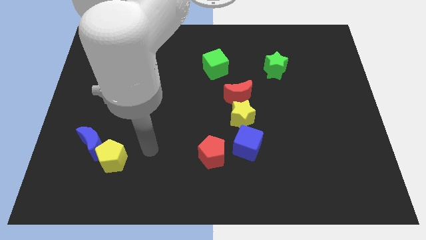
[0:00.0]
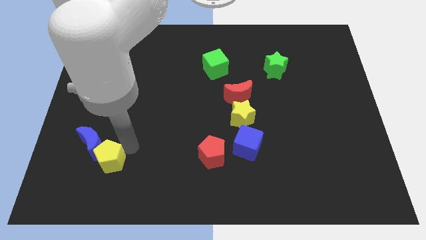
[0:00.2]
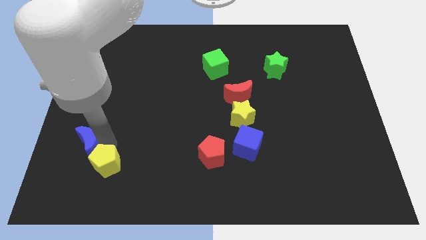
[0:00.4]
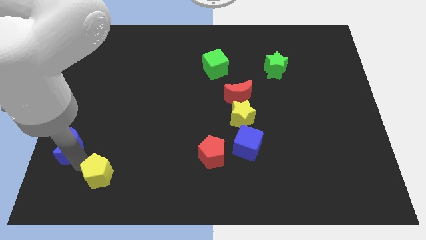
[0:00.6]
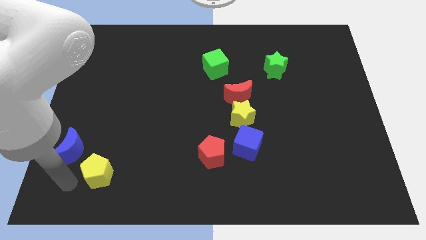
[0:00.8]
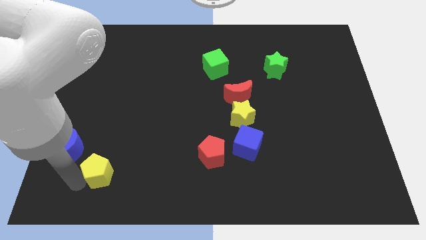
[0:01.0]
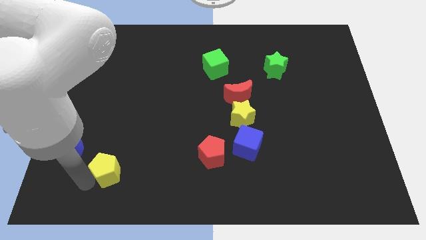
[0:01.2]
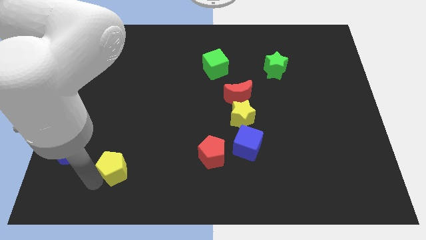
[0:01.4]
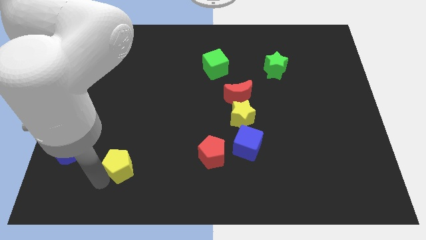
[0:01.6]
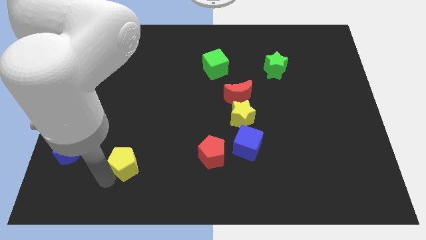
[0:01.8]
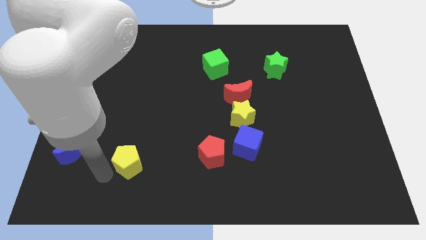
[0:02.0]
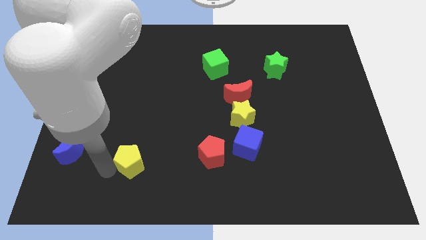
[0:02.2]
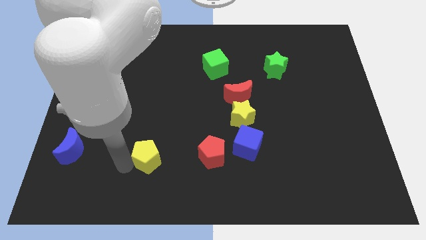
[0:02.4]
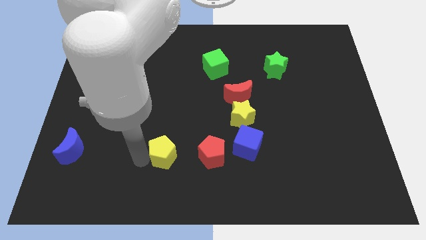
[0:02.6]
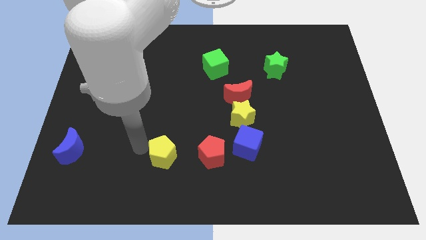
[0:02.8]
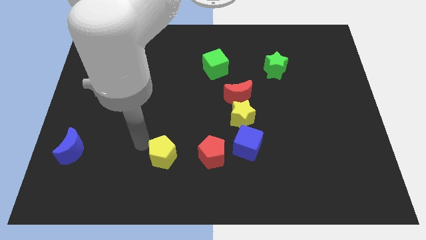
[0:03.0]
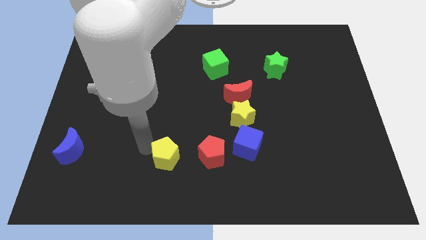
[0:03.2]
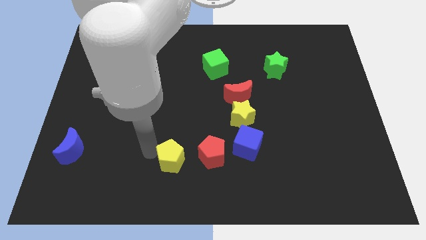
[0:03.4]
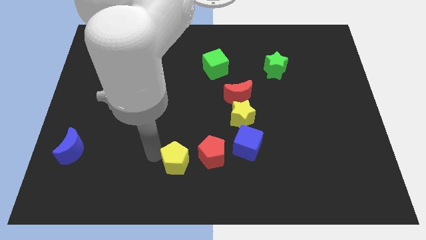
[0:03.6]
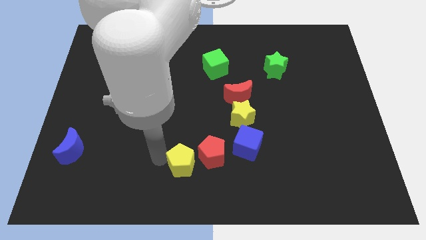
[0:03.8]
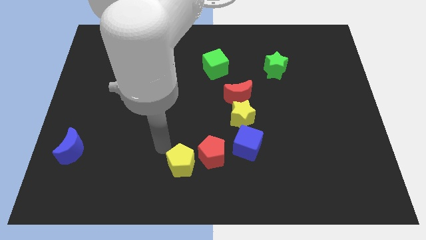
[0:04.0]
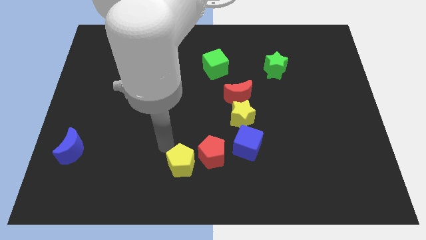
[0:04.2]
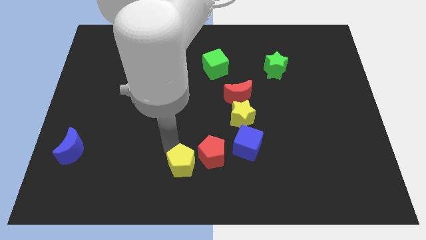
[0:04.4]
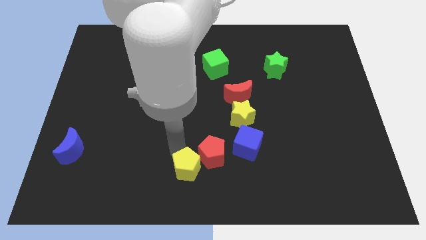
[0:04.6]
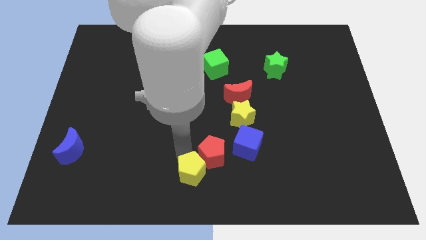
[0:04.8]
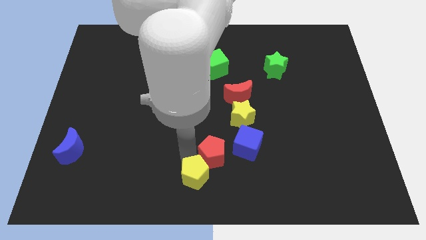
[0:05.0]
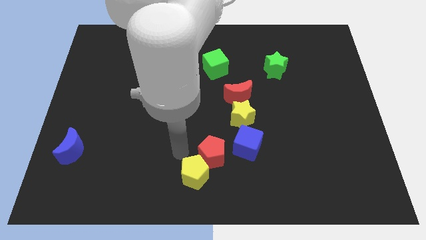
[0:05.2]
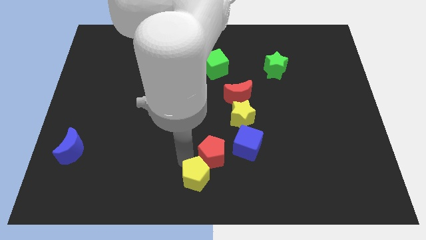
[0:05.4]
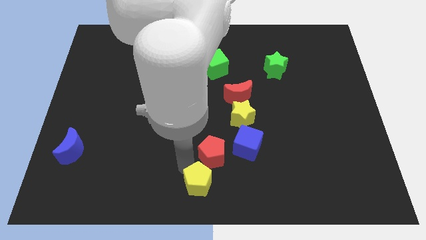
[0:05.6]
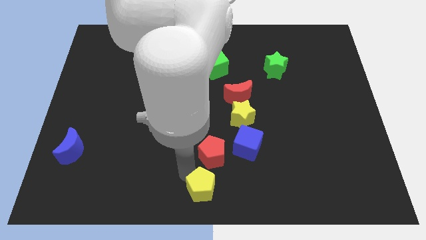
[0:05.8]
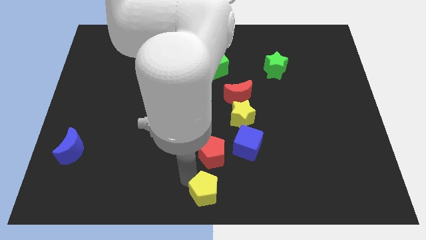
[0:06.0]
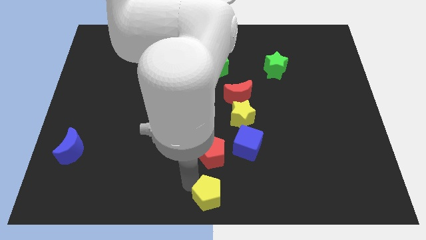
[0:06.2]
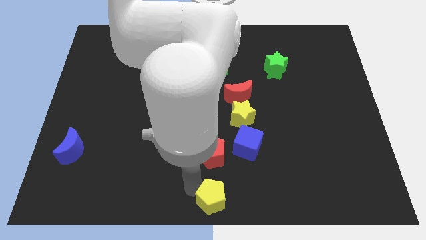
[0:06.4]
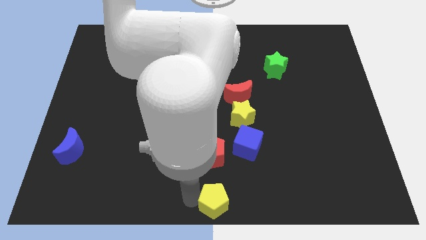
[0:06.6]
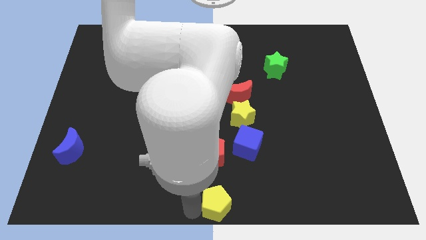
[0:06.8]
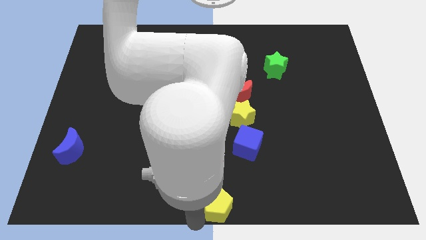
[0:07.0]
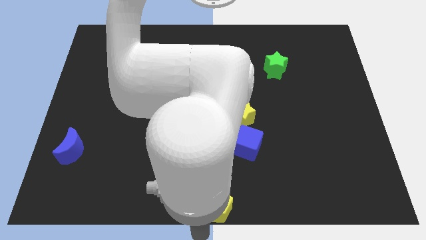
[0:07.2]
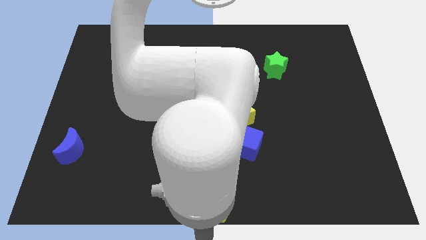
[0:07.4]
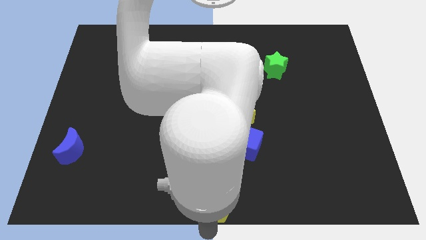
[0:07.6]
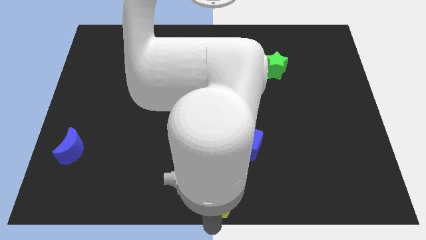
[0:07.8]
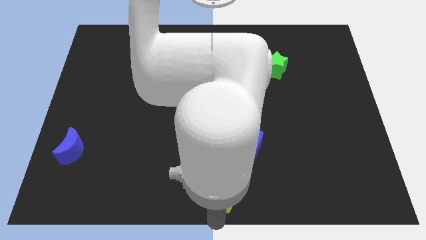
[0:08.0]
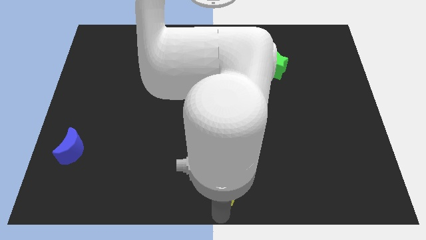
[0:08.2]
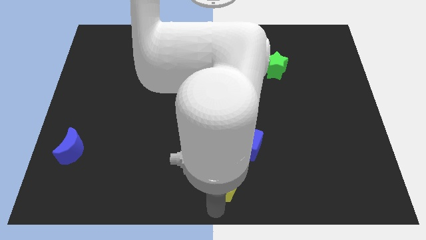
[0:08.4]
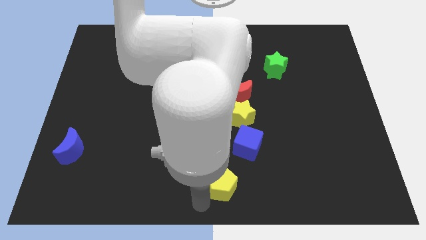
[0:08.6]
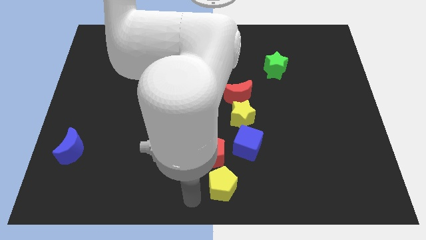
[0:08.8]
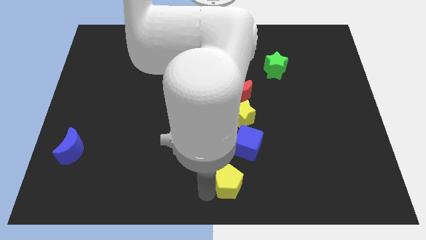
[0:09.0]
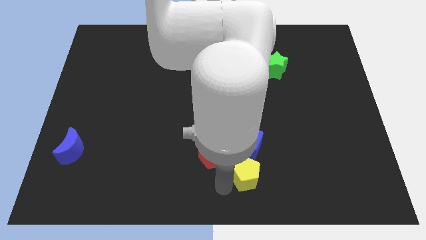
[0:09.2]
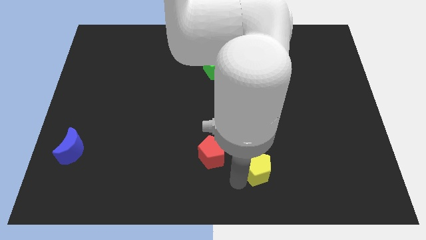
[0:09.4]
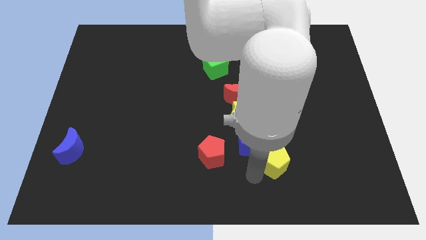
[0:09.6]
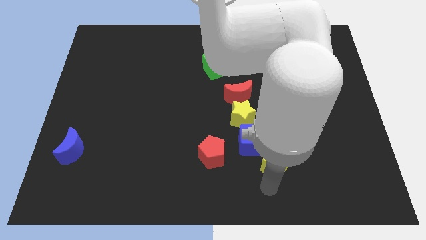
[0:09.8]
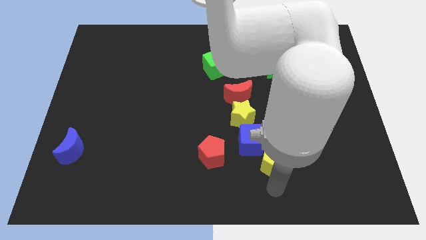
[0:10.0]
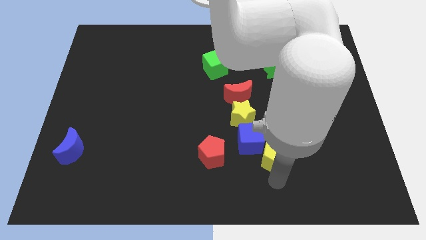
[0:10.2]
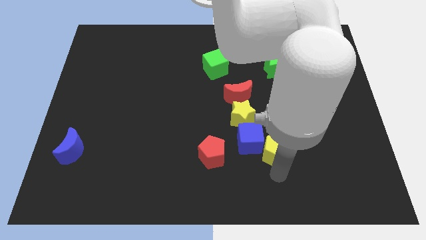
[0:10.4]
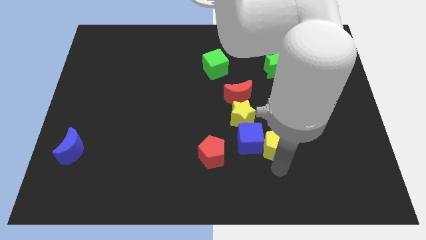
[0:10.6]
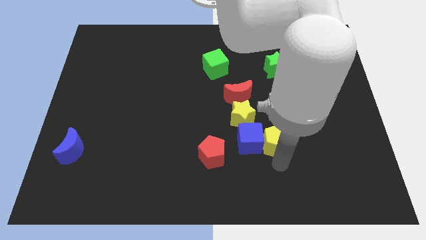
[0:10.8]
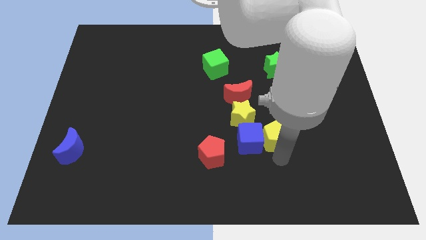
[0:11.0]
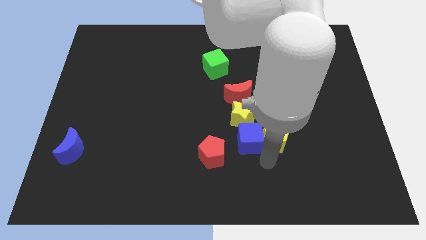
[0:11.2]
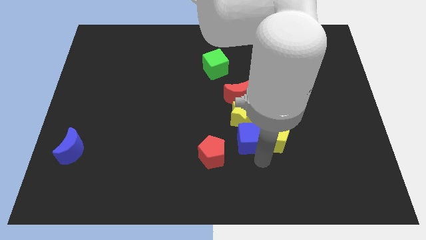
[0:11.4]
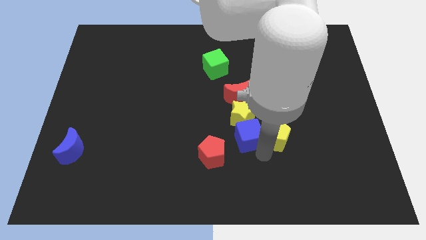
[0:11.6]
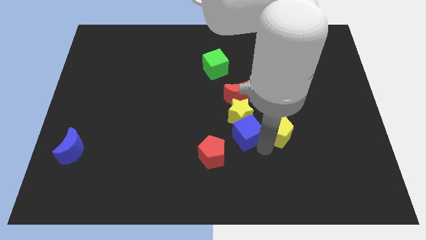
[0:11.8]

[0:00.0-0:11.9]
put the yellow pentagon right of the yellow star

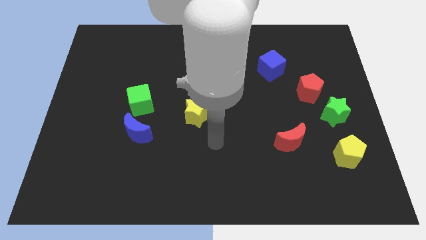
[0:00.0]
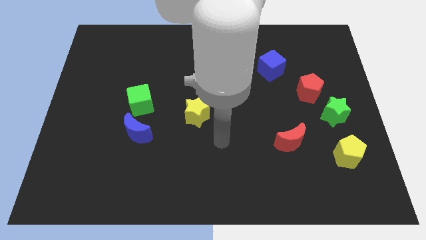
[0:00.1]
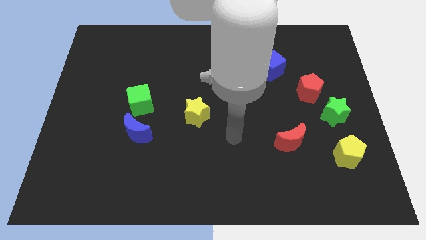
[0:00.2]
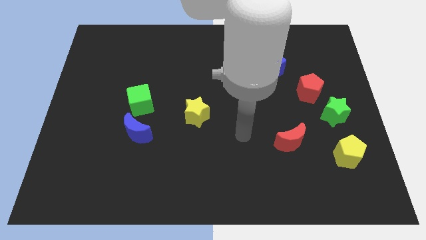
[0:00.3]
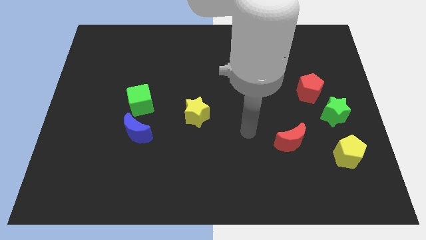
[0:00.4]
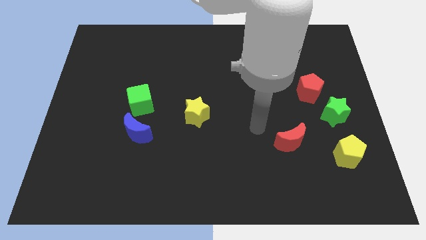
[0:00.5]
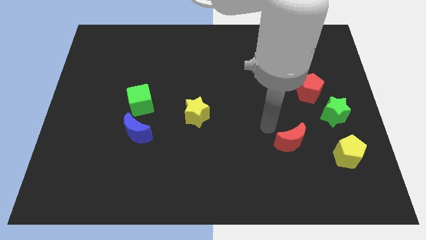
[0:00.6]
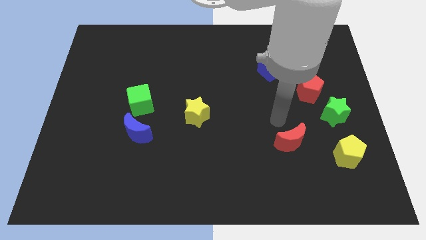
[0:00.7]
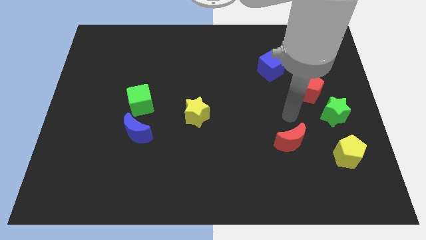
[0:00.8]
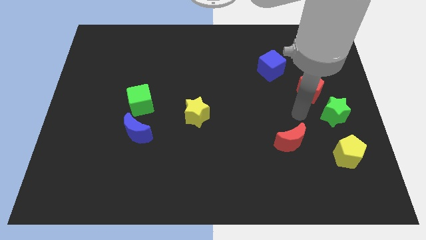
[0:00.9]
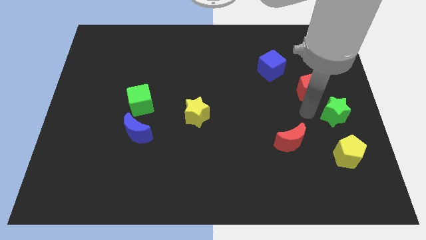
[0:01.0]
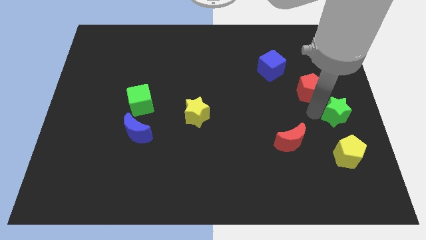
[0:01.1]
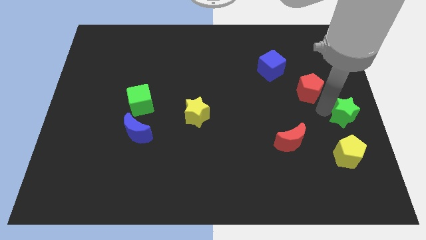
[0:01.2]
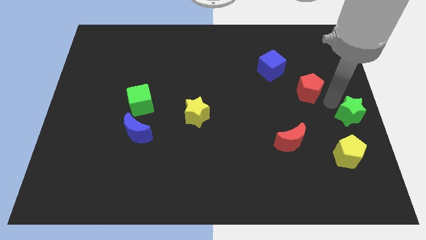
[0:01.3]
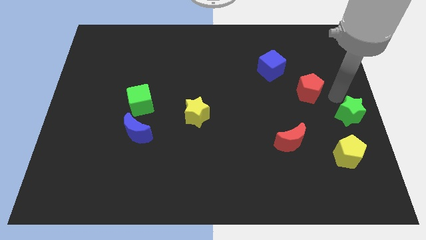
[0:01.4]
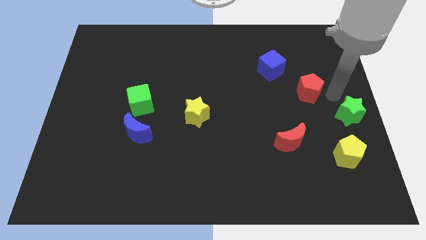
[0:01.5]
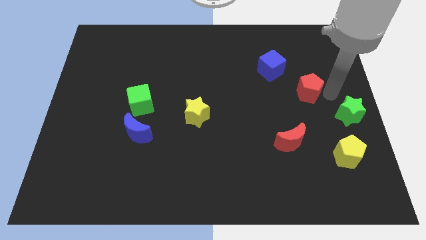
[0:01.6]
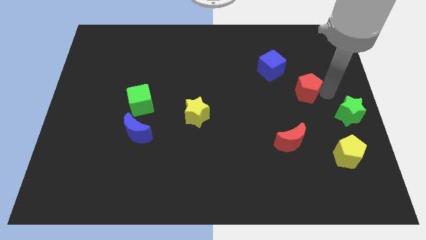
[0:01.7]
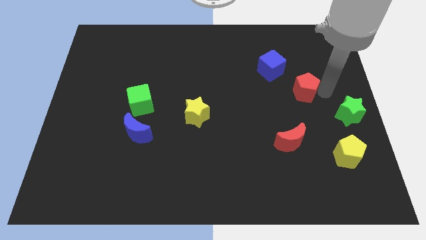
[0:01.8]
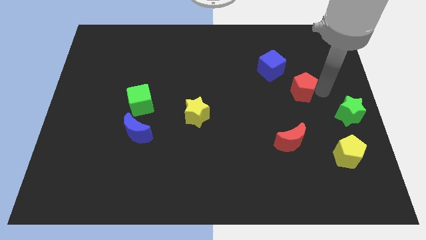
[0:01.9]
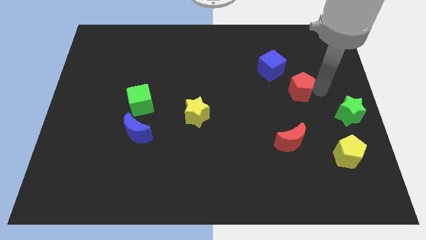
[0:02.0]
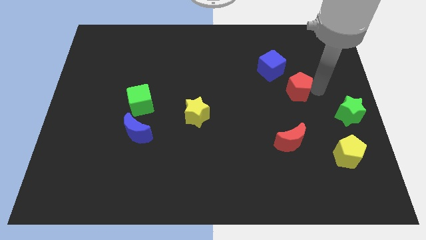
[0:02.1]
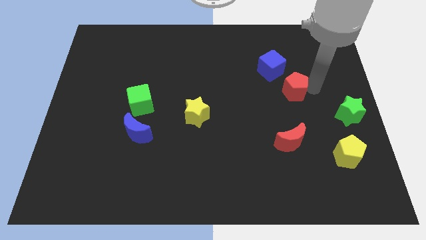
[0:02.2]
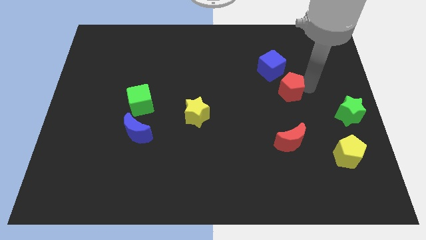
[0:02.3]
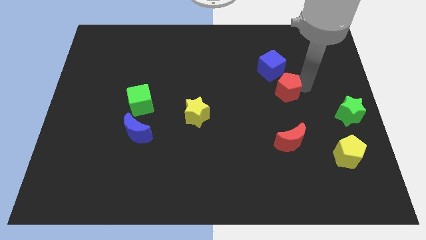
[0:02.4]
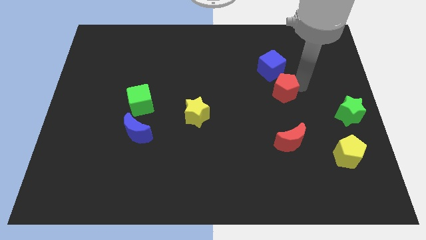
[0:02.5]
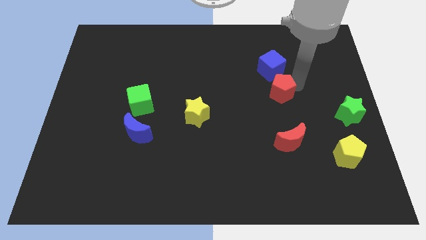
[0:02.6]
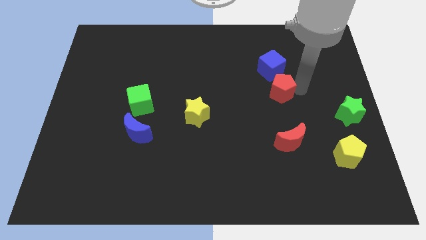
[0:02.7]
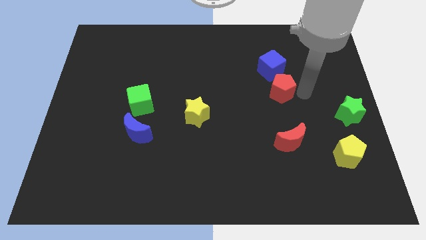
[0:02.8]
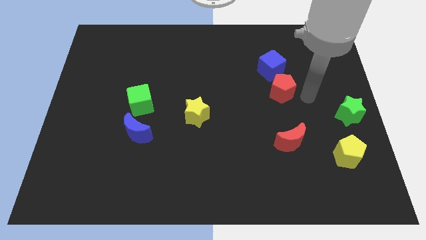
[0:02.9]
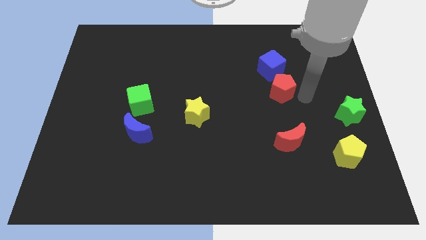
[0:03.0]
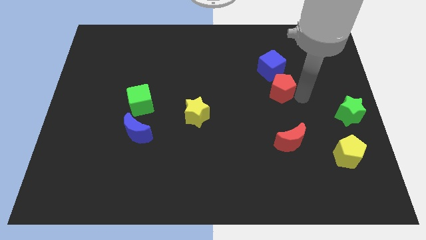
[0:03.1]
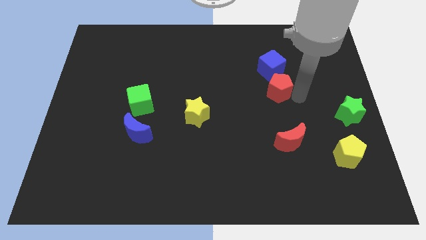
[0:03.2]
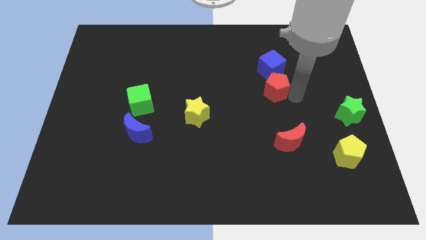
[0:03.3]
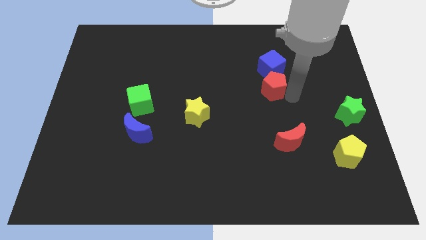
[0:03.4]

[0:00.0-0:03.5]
slide the red pentagon to the bottom left of the blue cube
